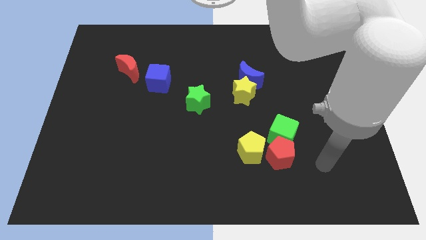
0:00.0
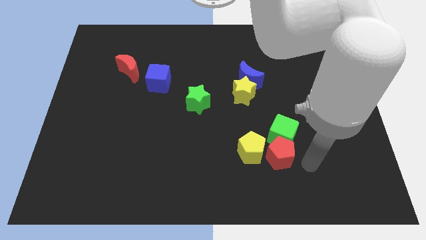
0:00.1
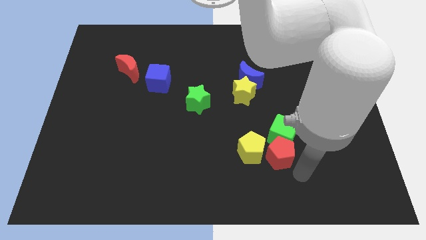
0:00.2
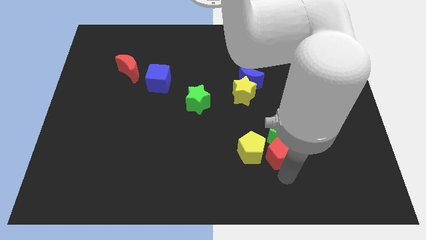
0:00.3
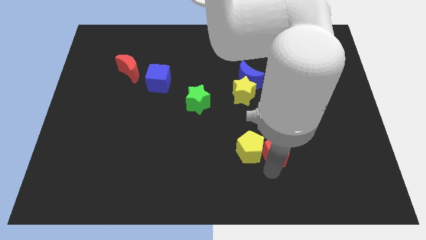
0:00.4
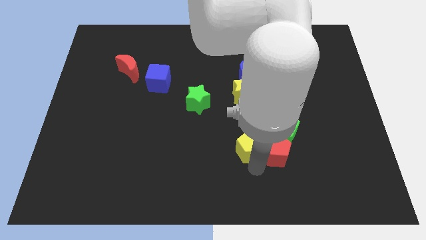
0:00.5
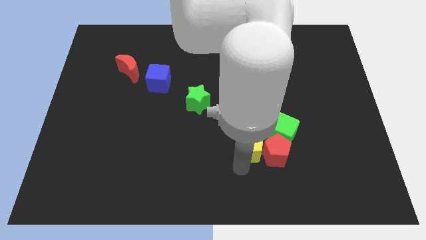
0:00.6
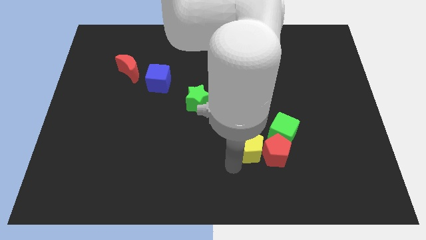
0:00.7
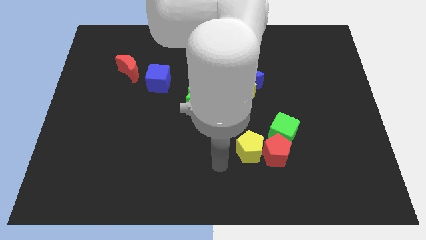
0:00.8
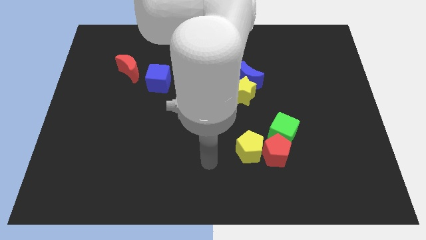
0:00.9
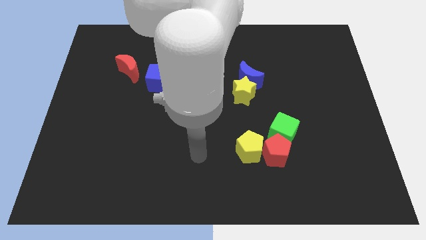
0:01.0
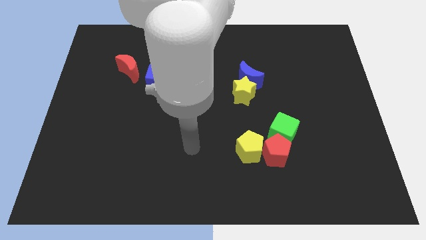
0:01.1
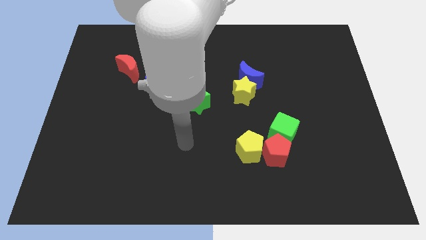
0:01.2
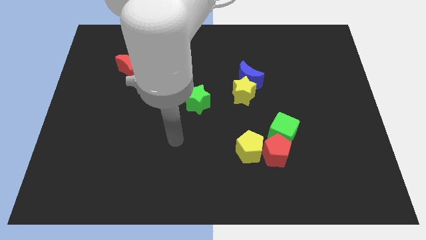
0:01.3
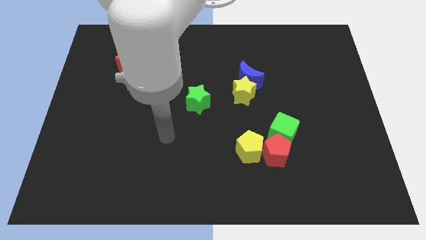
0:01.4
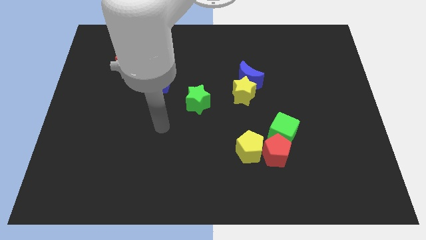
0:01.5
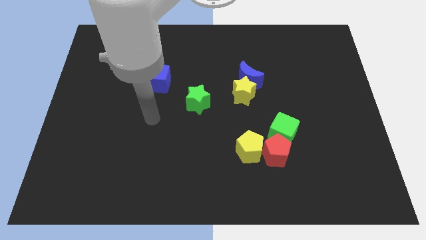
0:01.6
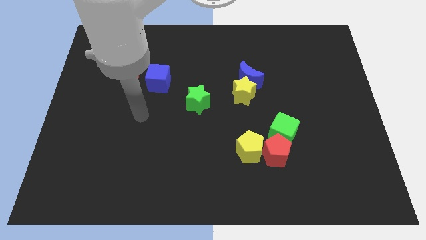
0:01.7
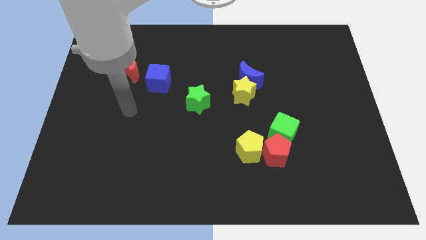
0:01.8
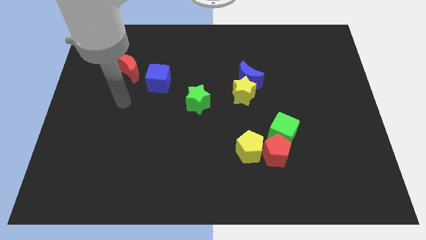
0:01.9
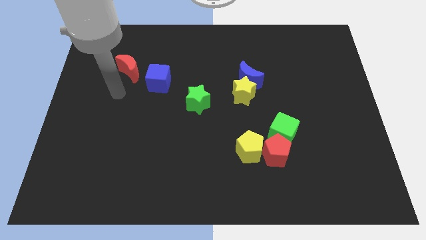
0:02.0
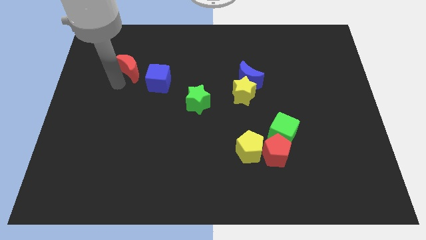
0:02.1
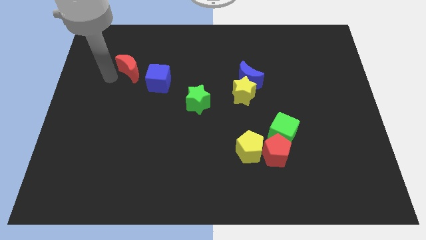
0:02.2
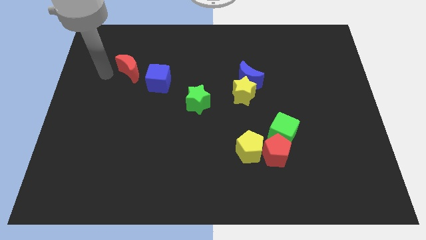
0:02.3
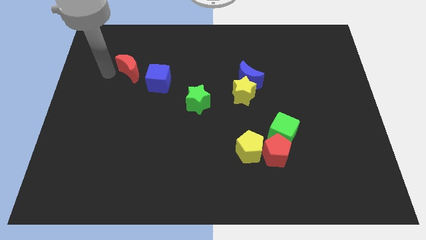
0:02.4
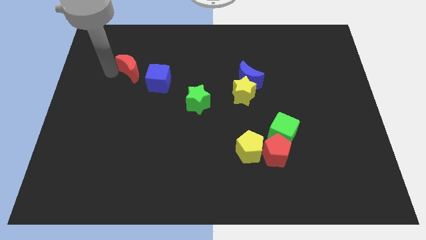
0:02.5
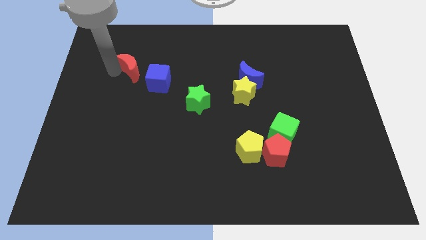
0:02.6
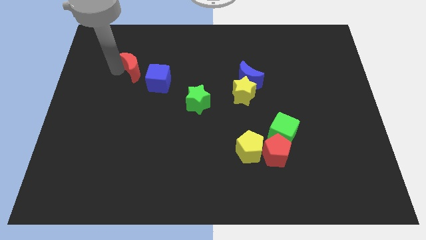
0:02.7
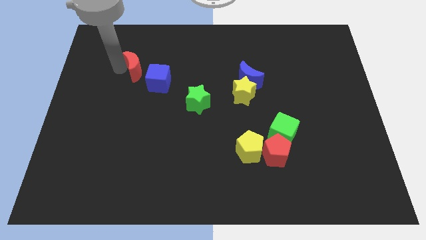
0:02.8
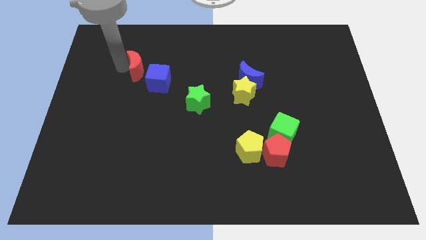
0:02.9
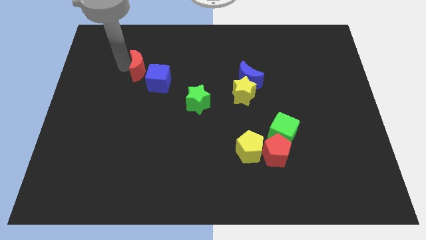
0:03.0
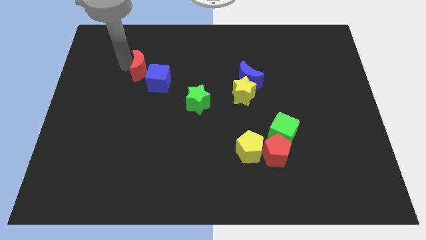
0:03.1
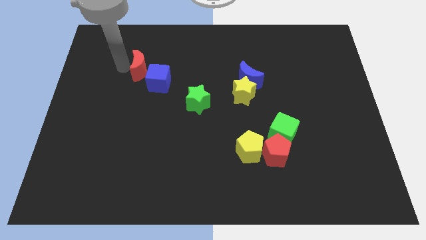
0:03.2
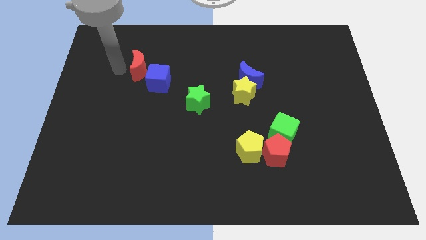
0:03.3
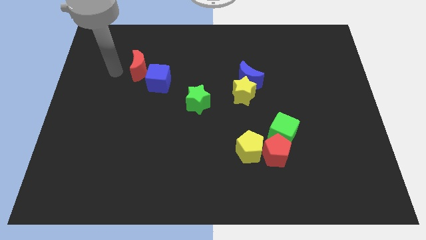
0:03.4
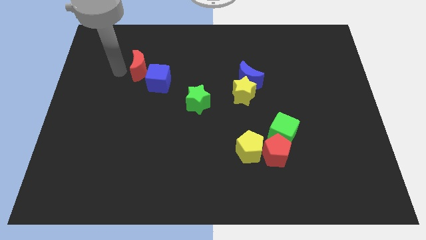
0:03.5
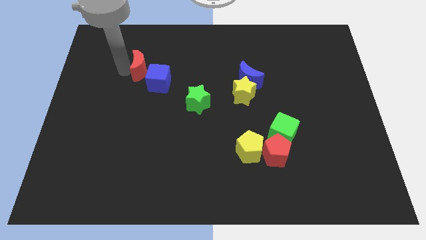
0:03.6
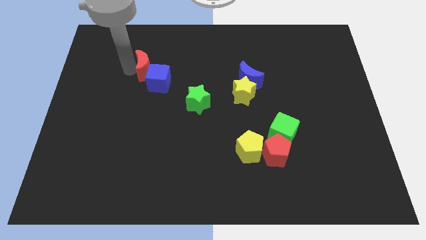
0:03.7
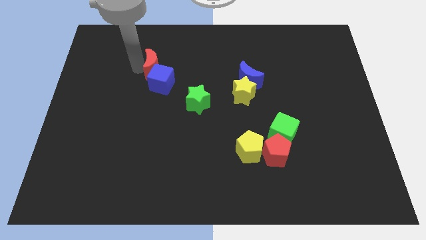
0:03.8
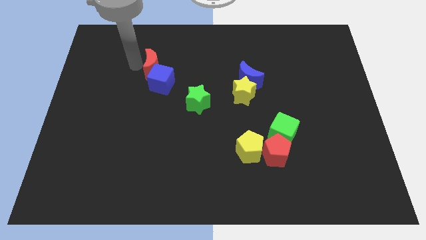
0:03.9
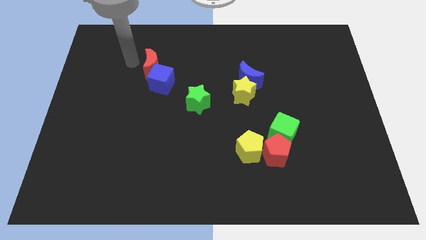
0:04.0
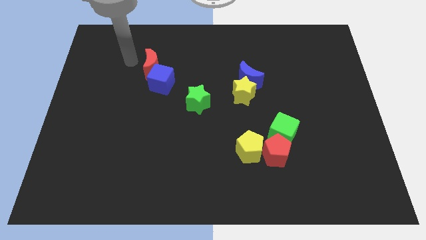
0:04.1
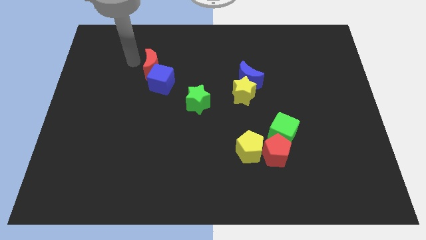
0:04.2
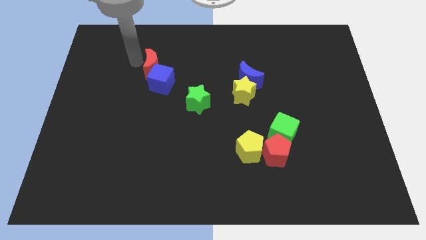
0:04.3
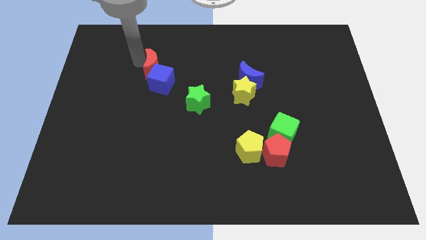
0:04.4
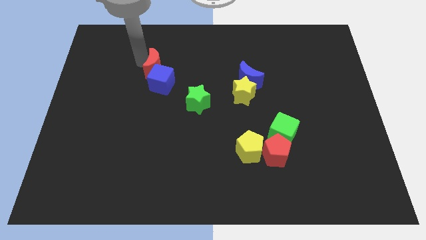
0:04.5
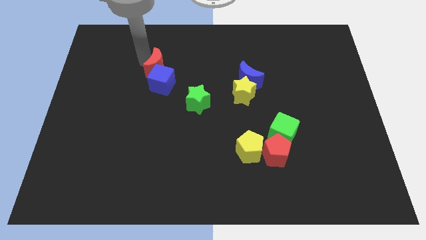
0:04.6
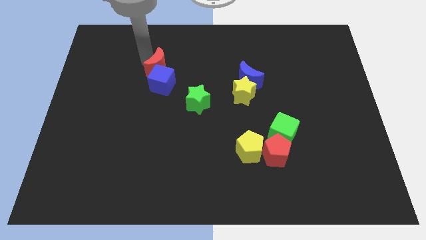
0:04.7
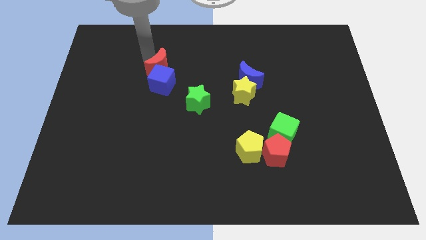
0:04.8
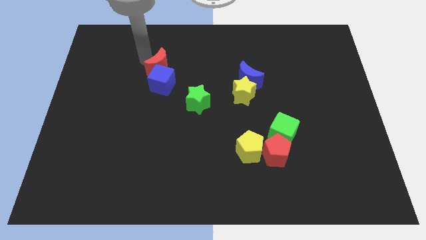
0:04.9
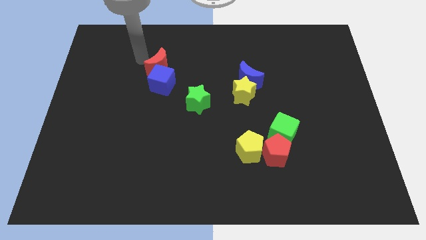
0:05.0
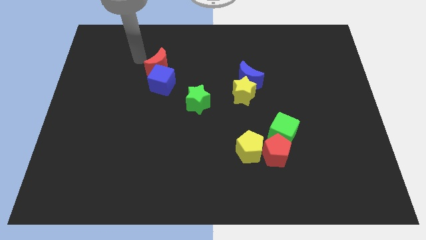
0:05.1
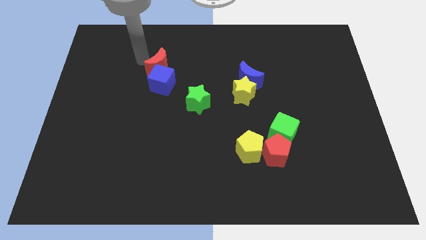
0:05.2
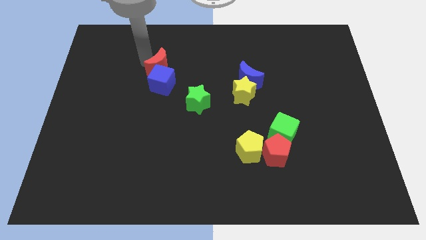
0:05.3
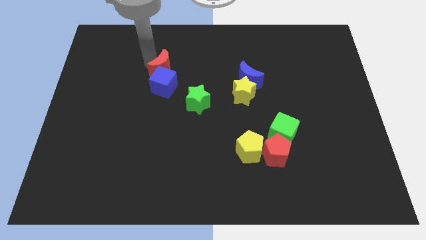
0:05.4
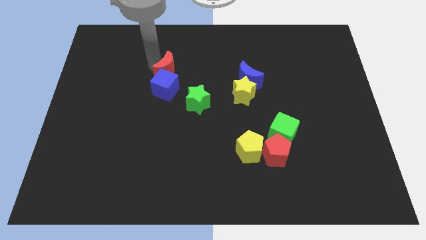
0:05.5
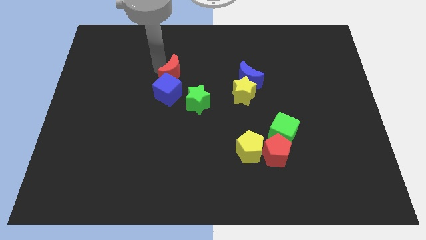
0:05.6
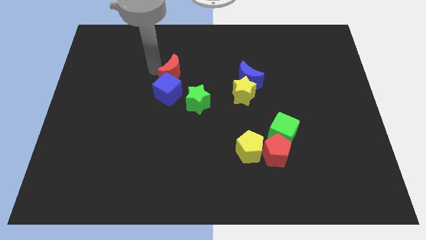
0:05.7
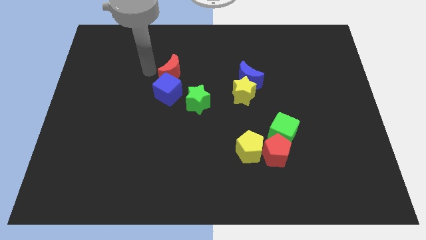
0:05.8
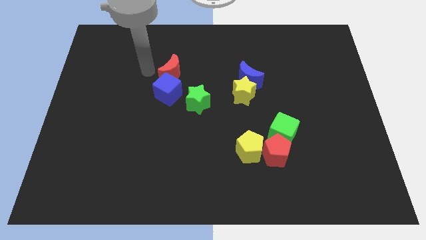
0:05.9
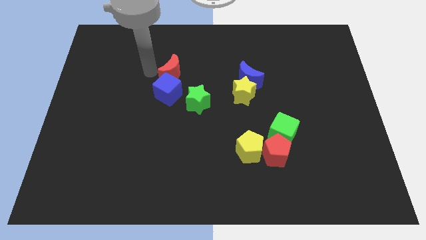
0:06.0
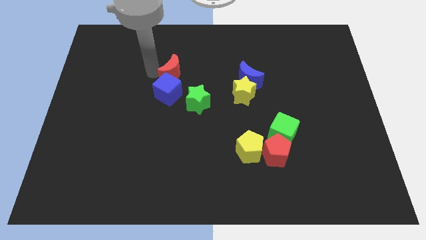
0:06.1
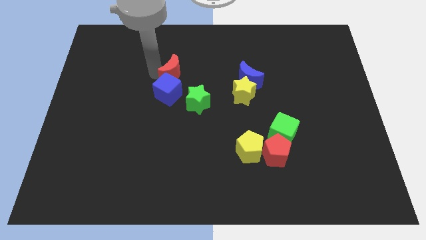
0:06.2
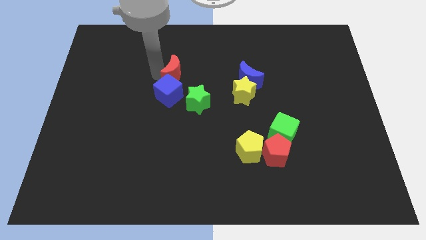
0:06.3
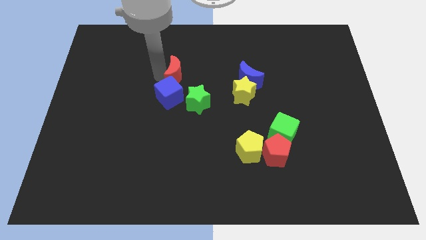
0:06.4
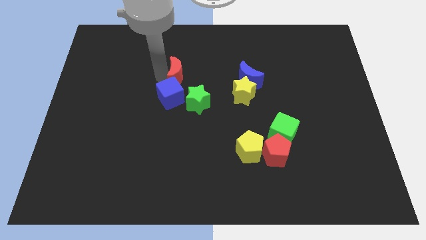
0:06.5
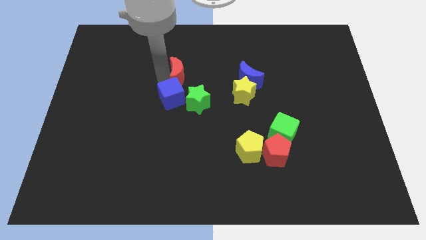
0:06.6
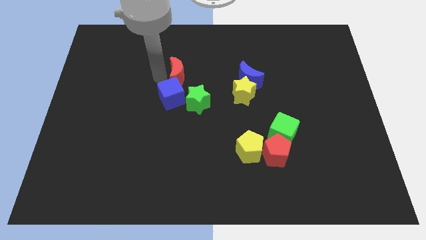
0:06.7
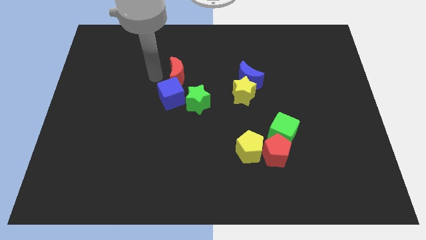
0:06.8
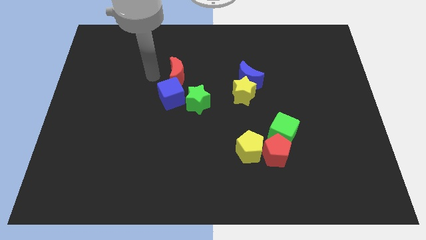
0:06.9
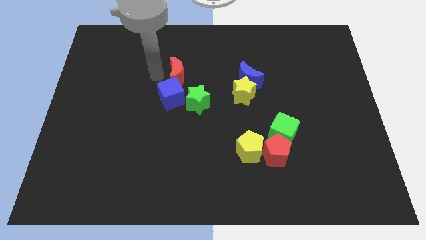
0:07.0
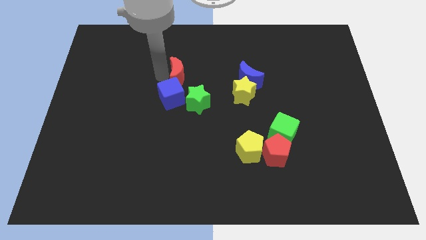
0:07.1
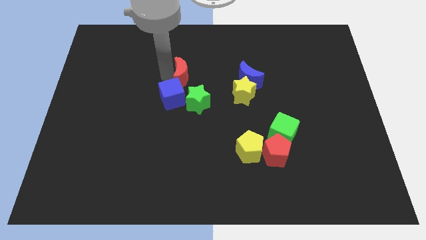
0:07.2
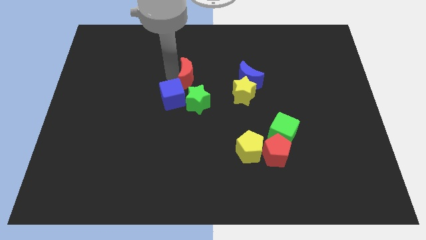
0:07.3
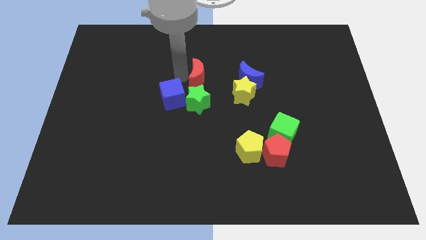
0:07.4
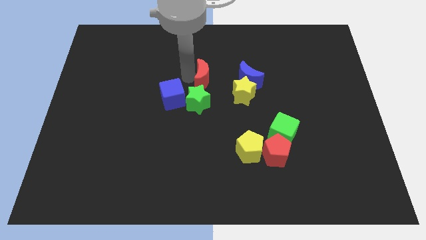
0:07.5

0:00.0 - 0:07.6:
slide the red moon to the top left of the yellow star

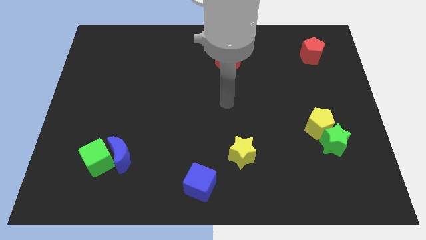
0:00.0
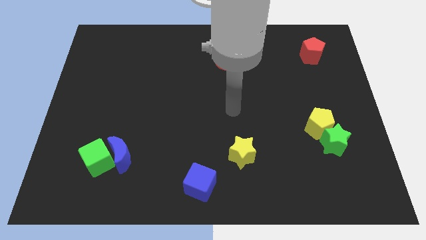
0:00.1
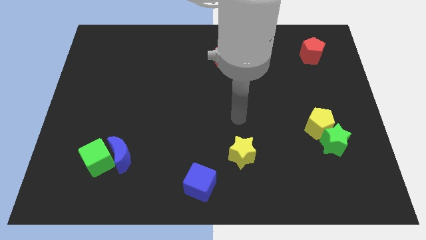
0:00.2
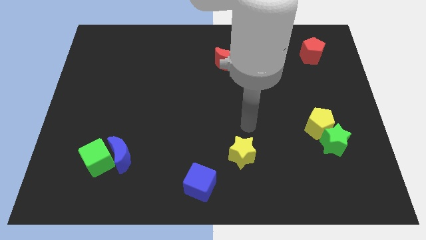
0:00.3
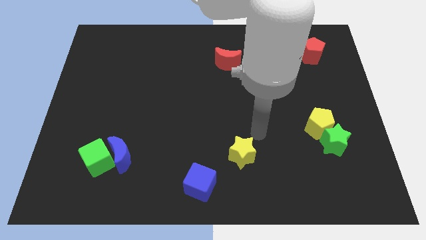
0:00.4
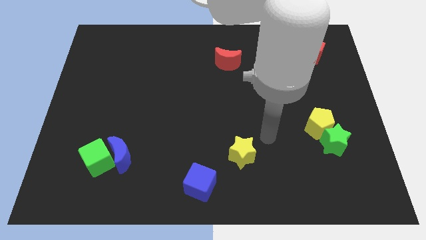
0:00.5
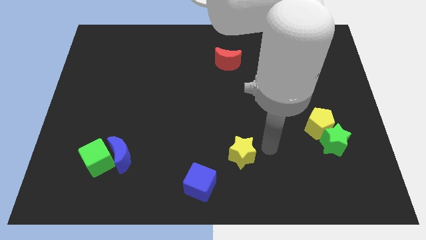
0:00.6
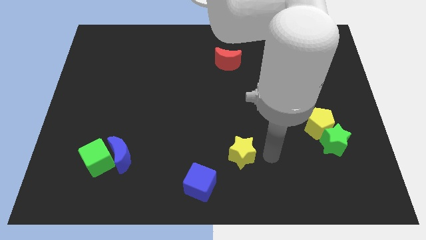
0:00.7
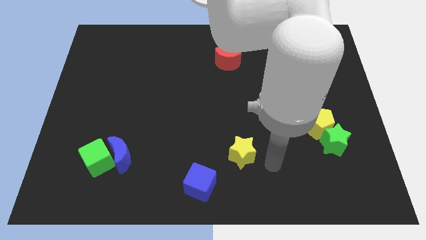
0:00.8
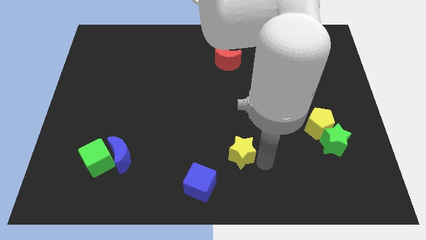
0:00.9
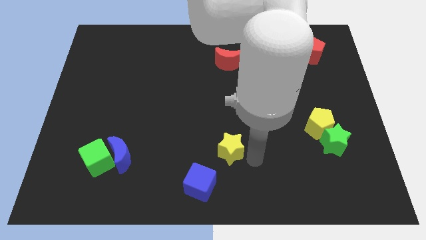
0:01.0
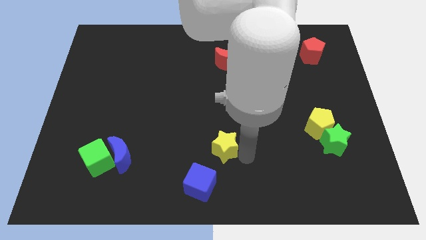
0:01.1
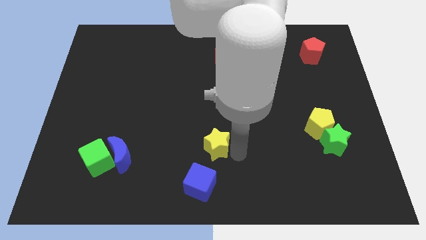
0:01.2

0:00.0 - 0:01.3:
move the yellow star above the blue cube
